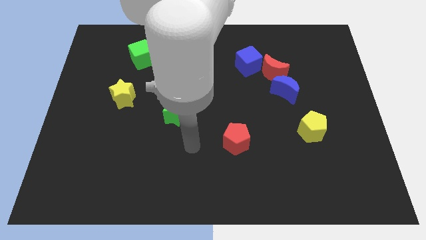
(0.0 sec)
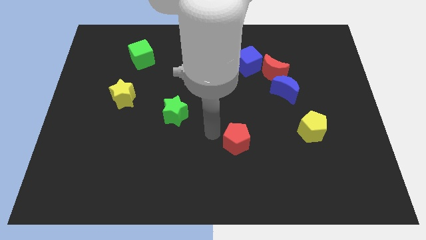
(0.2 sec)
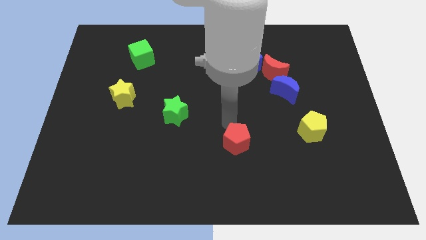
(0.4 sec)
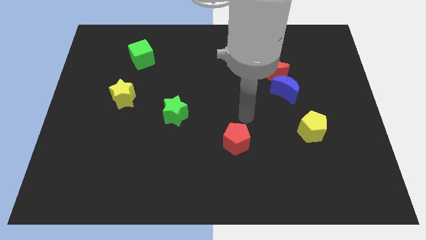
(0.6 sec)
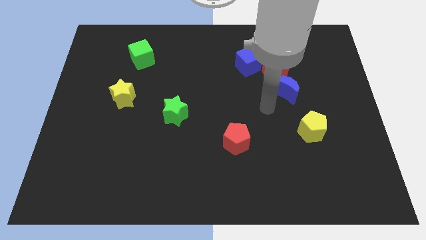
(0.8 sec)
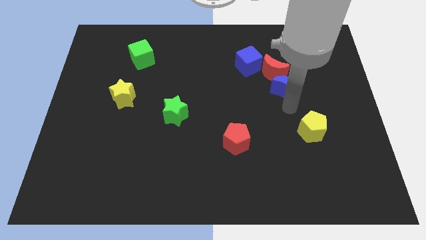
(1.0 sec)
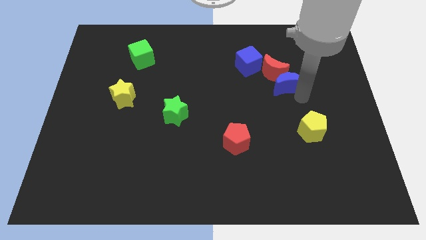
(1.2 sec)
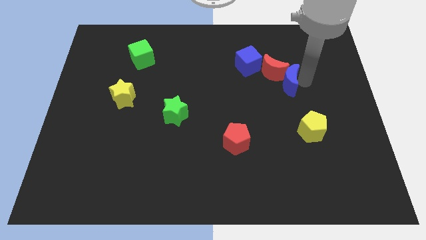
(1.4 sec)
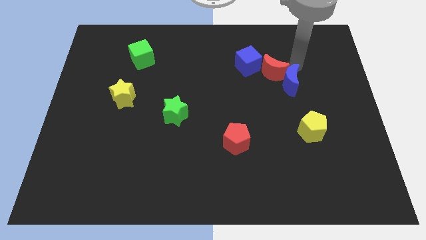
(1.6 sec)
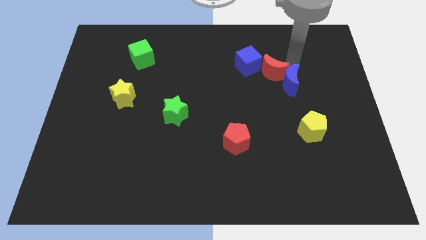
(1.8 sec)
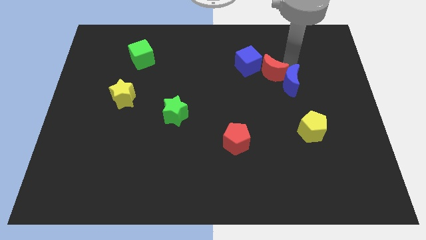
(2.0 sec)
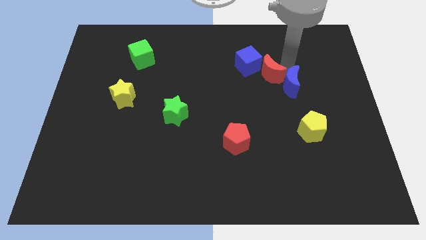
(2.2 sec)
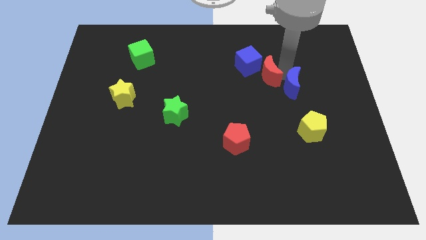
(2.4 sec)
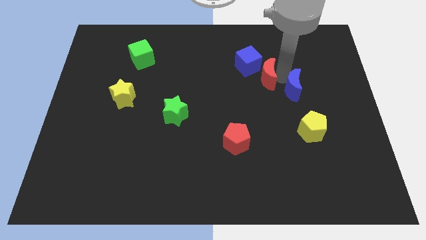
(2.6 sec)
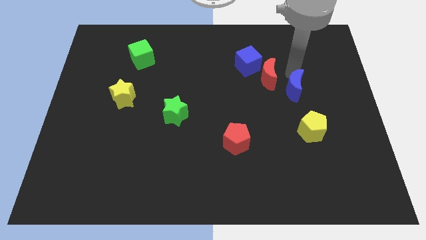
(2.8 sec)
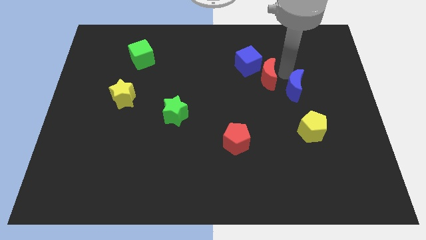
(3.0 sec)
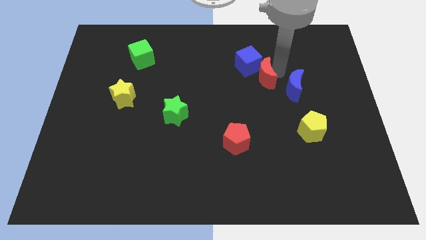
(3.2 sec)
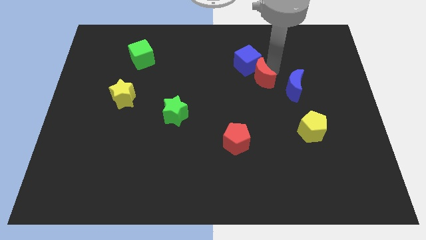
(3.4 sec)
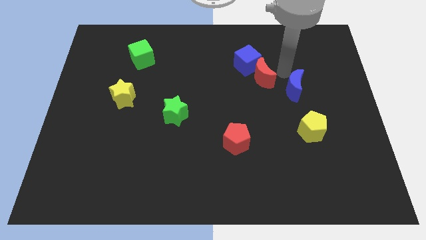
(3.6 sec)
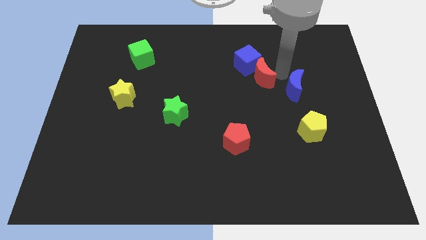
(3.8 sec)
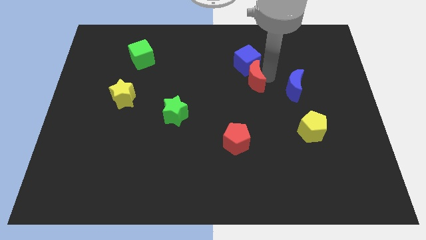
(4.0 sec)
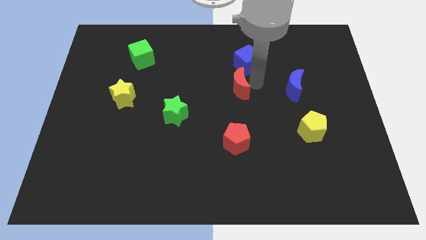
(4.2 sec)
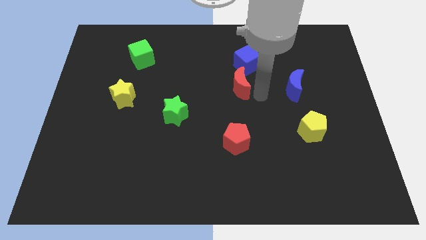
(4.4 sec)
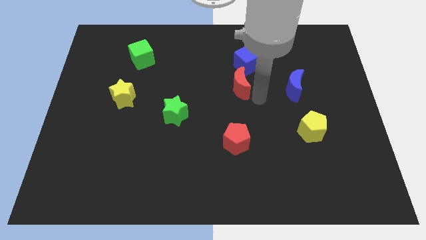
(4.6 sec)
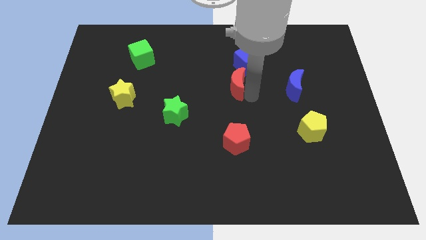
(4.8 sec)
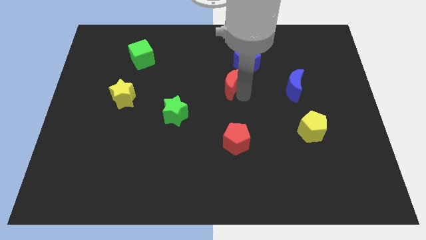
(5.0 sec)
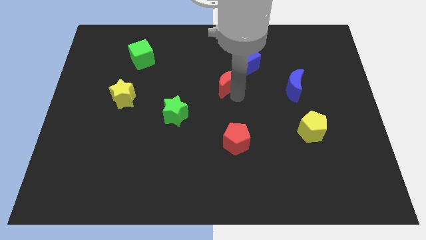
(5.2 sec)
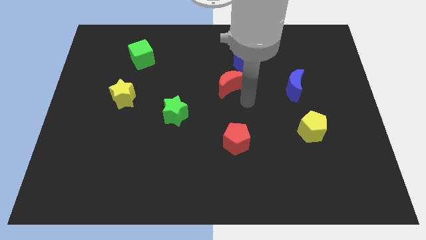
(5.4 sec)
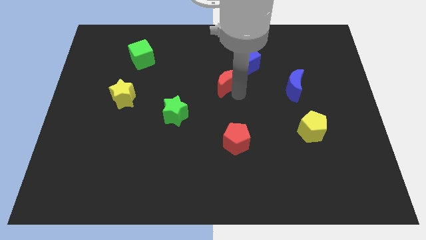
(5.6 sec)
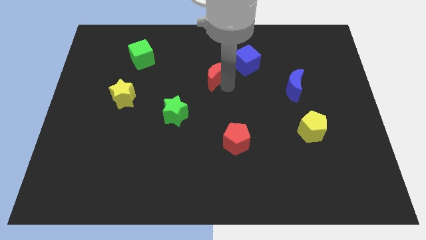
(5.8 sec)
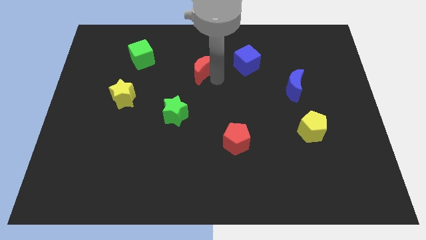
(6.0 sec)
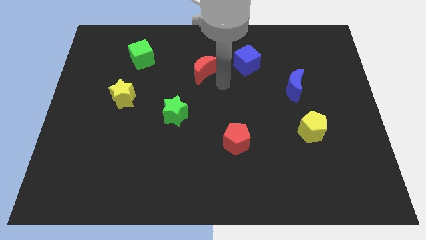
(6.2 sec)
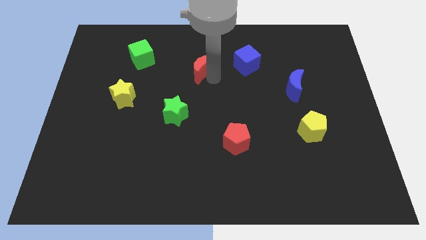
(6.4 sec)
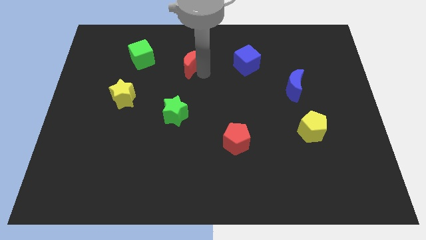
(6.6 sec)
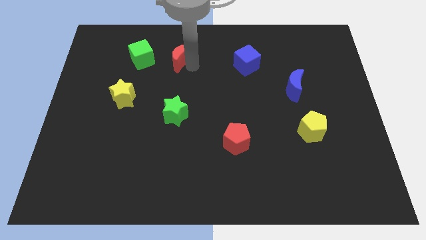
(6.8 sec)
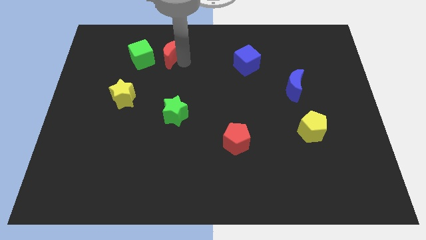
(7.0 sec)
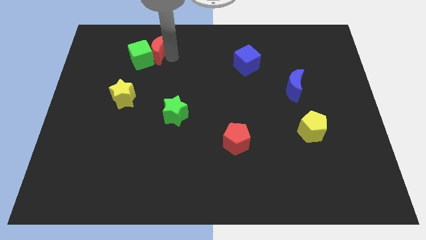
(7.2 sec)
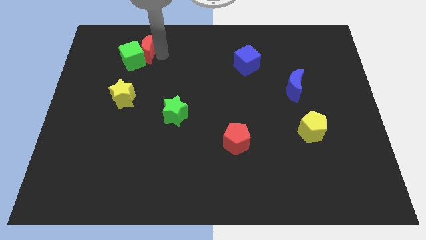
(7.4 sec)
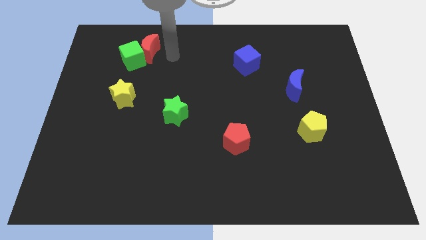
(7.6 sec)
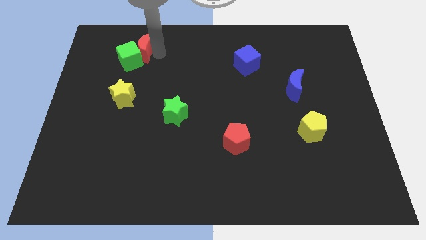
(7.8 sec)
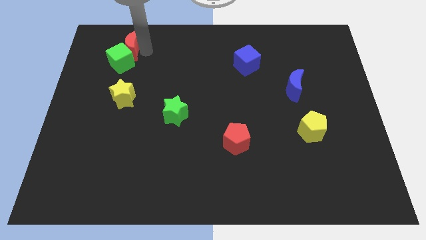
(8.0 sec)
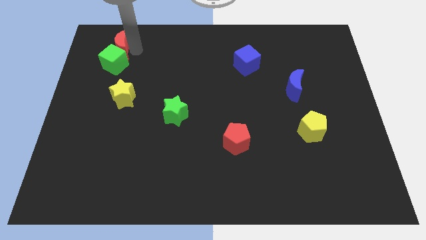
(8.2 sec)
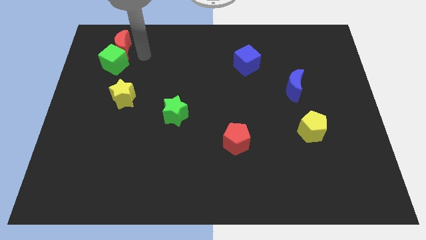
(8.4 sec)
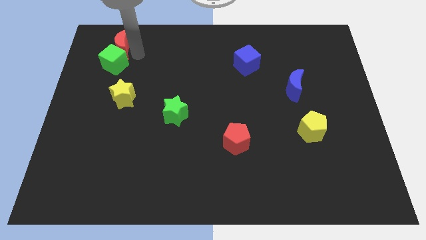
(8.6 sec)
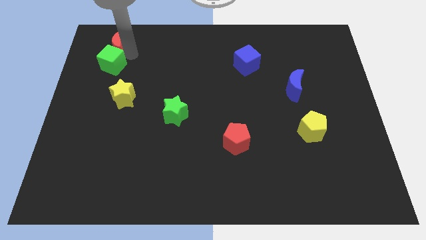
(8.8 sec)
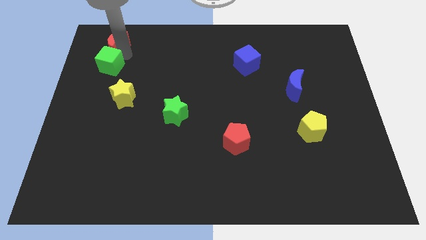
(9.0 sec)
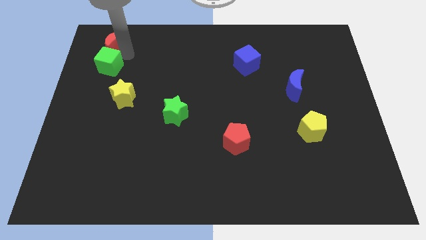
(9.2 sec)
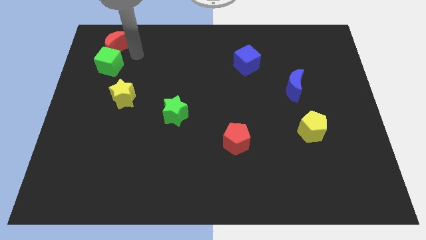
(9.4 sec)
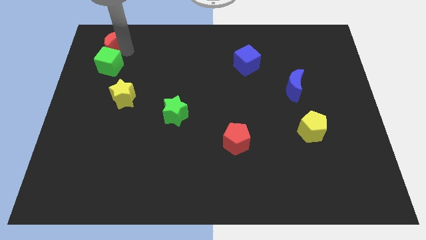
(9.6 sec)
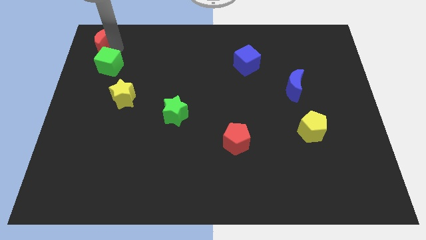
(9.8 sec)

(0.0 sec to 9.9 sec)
put the red moon to the upper left corner

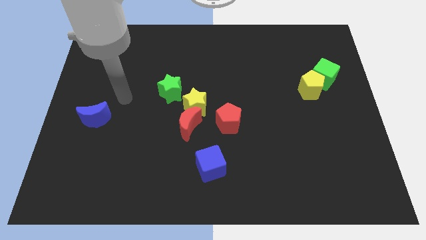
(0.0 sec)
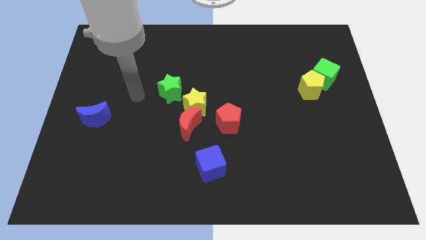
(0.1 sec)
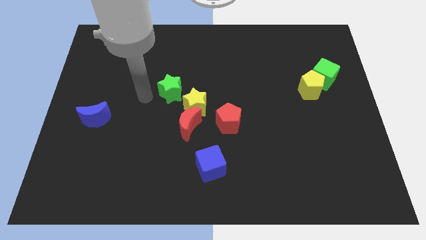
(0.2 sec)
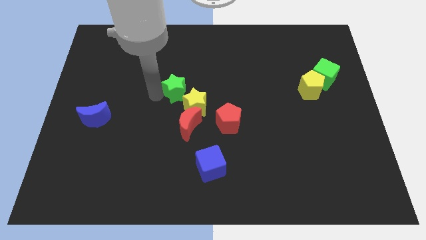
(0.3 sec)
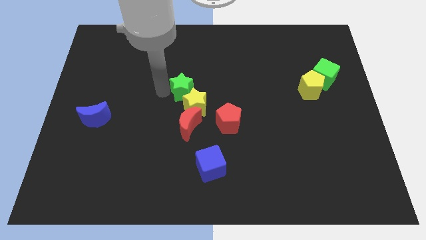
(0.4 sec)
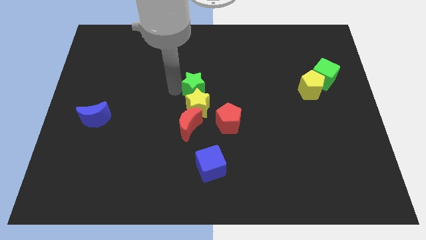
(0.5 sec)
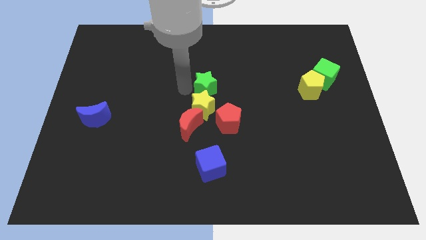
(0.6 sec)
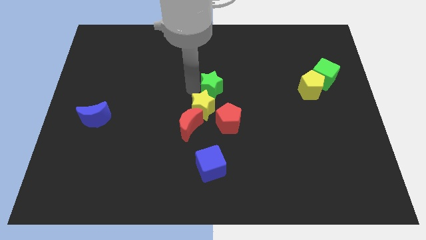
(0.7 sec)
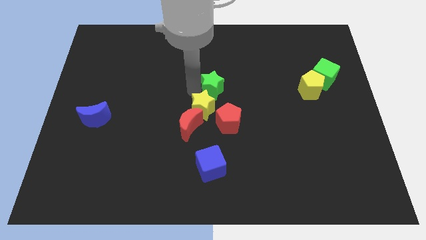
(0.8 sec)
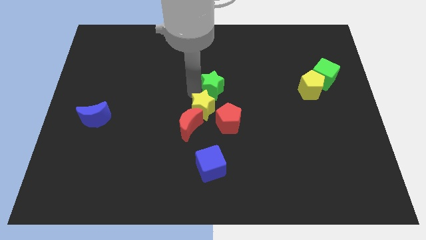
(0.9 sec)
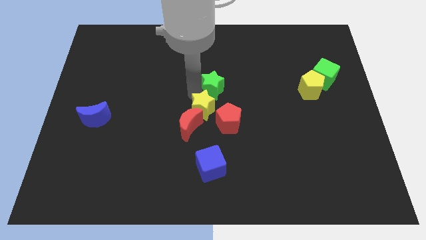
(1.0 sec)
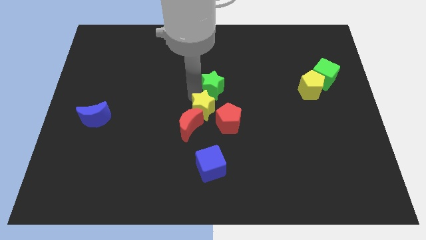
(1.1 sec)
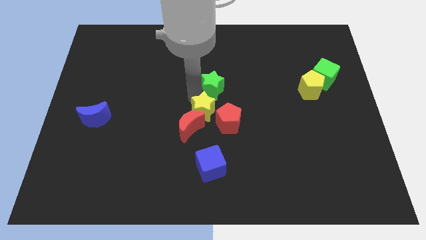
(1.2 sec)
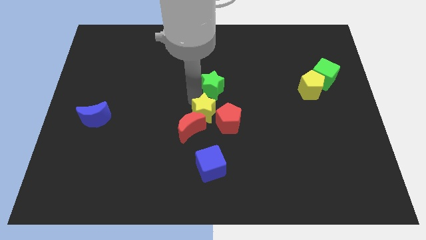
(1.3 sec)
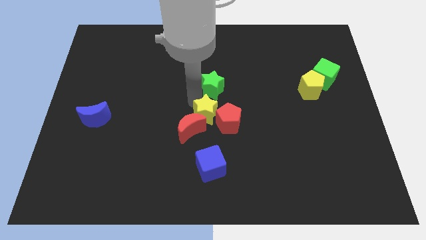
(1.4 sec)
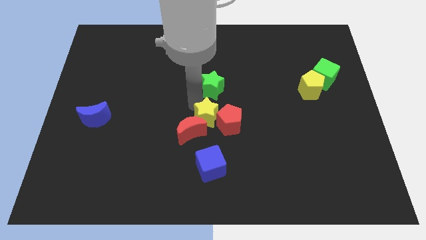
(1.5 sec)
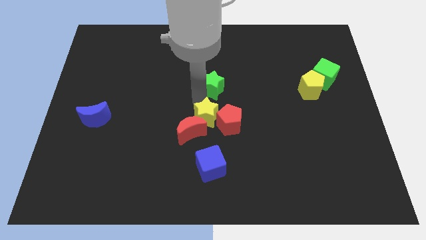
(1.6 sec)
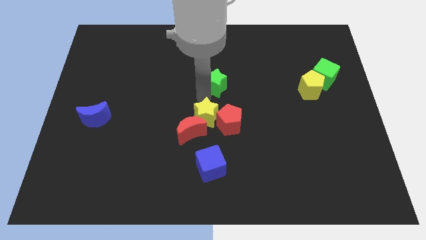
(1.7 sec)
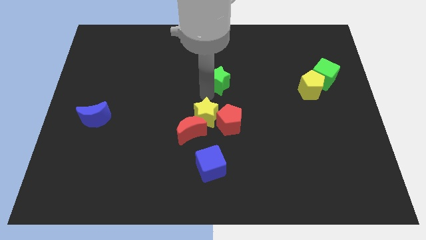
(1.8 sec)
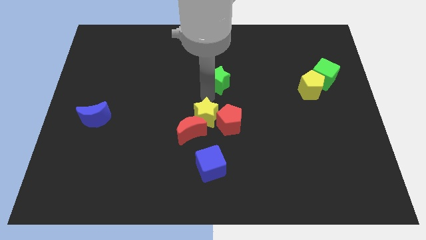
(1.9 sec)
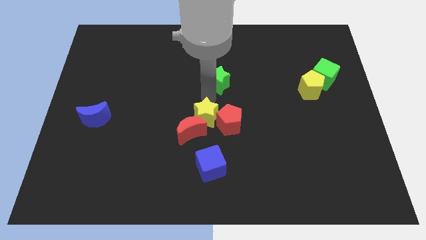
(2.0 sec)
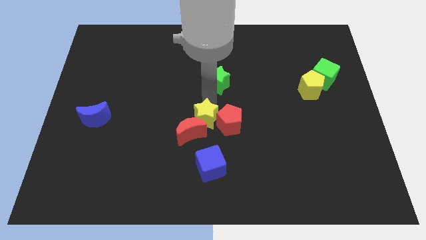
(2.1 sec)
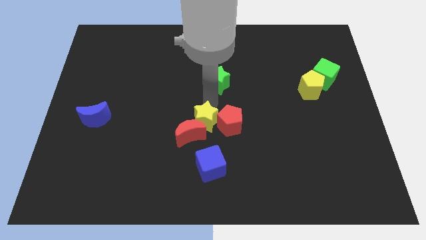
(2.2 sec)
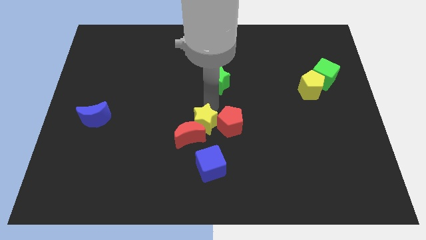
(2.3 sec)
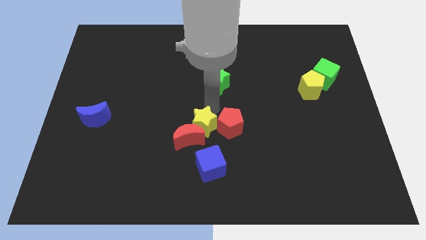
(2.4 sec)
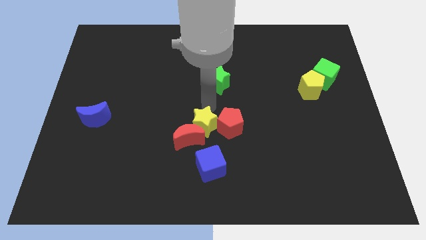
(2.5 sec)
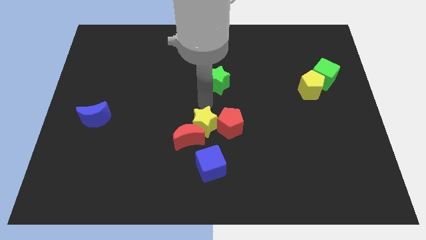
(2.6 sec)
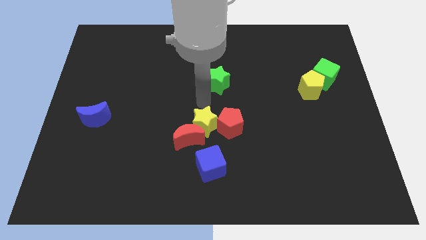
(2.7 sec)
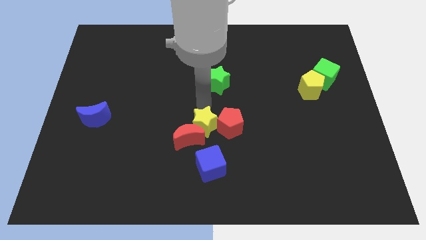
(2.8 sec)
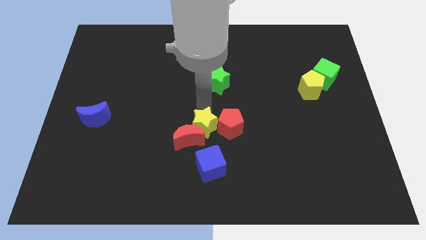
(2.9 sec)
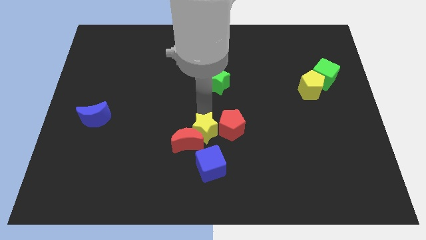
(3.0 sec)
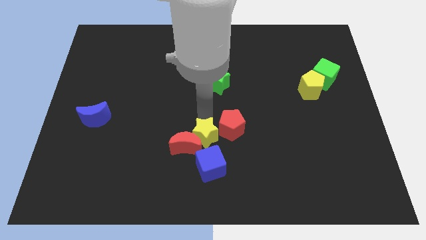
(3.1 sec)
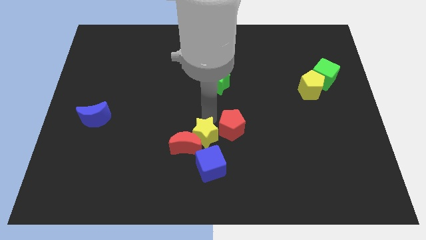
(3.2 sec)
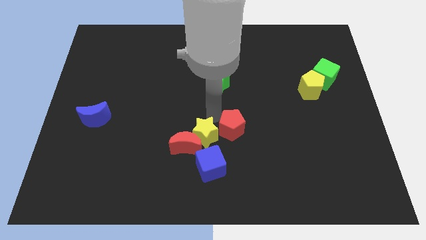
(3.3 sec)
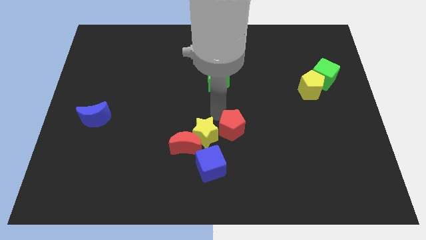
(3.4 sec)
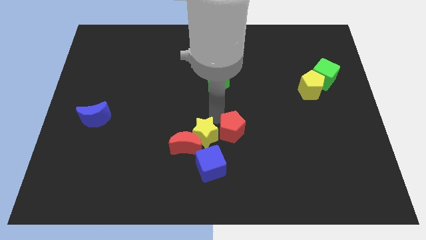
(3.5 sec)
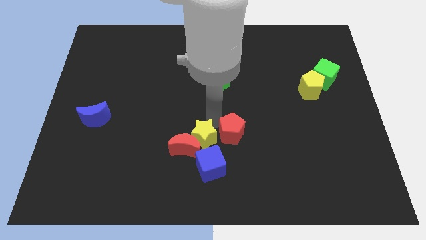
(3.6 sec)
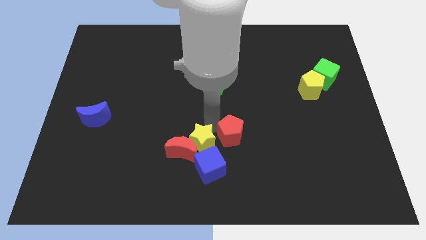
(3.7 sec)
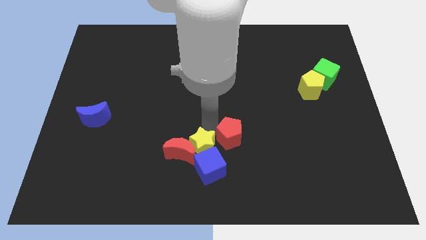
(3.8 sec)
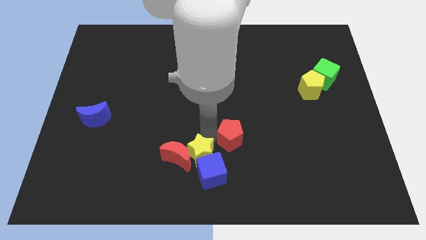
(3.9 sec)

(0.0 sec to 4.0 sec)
push the yellow star to the bottom side
